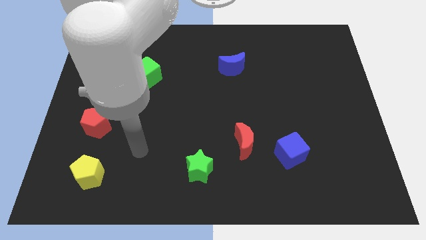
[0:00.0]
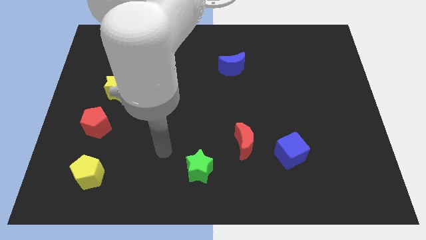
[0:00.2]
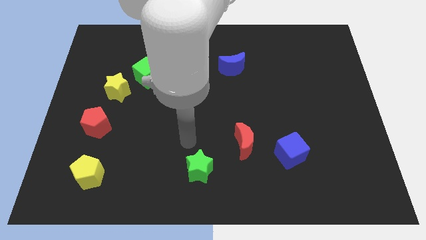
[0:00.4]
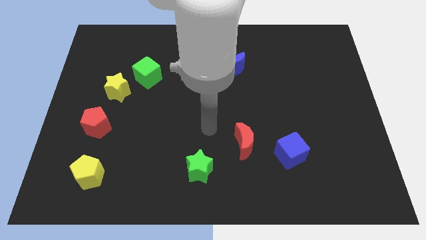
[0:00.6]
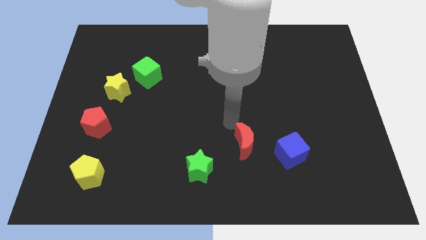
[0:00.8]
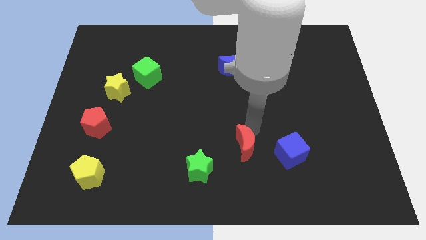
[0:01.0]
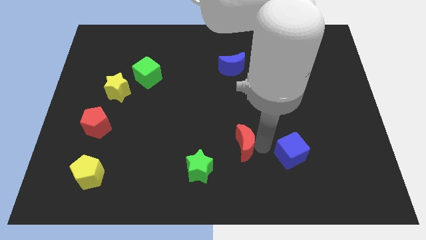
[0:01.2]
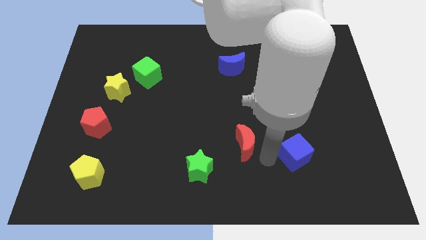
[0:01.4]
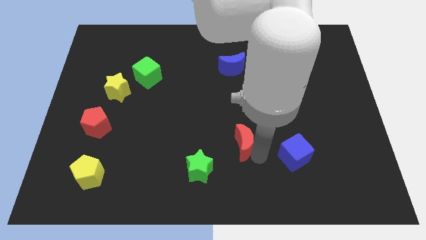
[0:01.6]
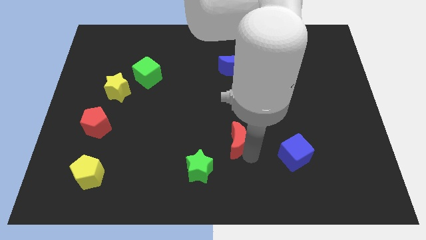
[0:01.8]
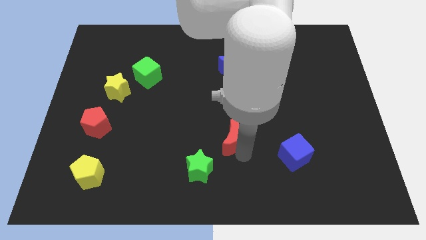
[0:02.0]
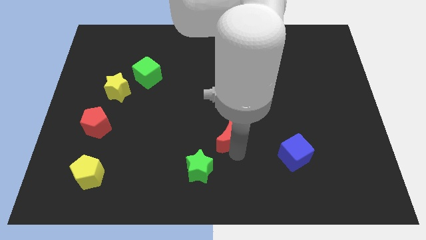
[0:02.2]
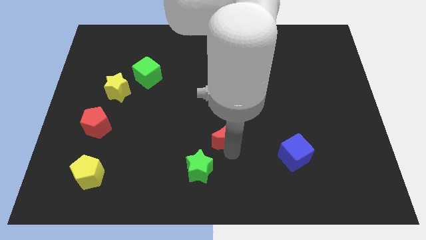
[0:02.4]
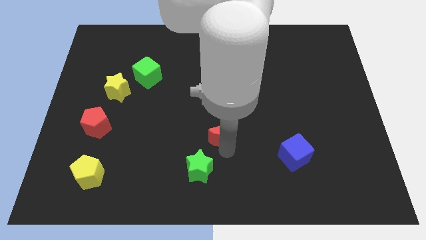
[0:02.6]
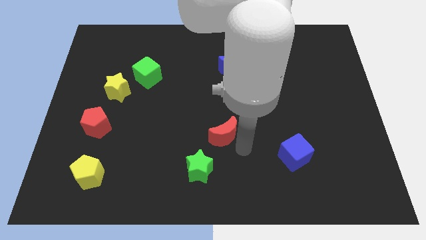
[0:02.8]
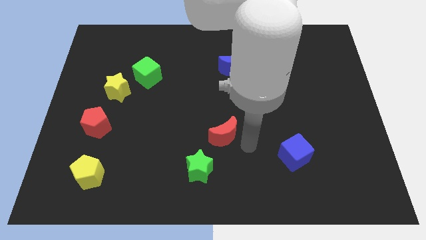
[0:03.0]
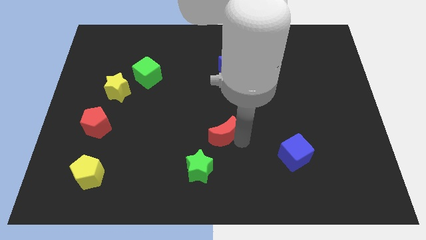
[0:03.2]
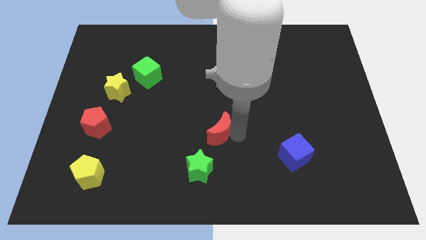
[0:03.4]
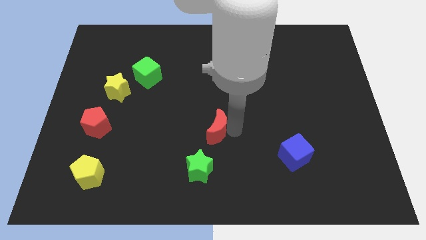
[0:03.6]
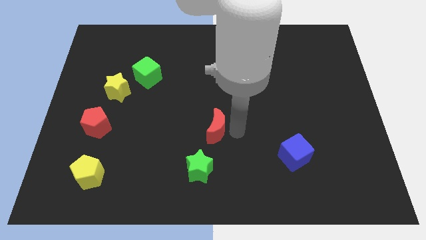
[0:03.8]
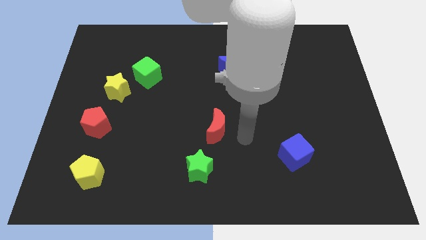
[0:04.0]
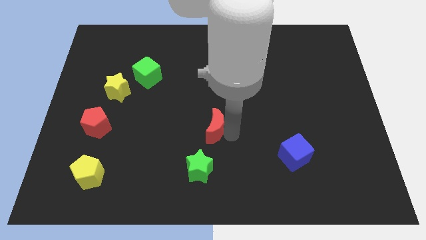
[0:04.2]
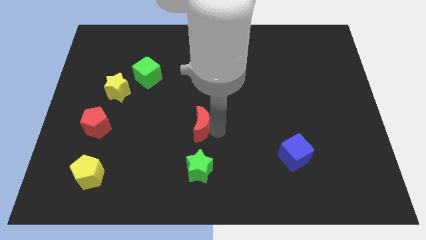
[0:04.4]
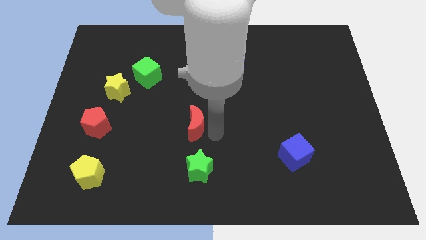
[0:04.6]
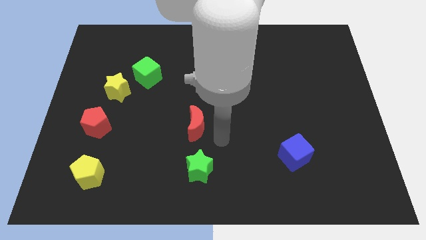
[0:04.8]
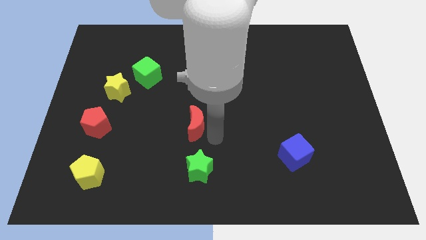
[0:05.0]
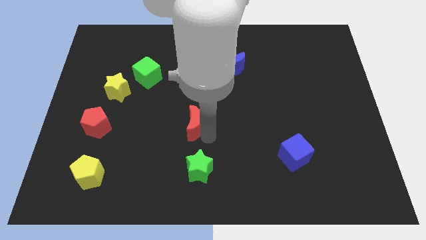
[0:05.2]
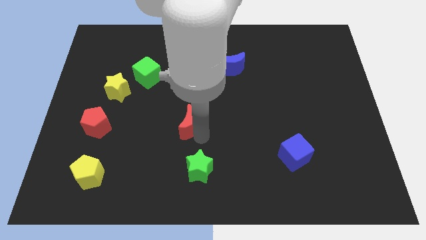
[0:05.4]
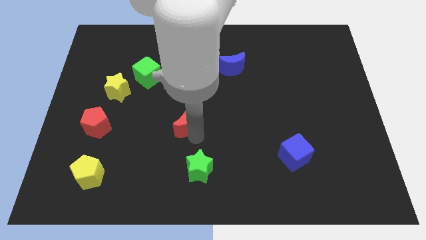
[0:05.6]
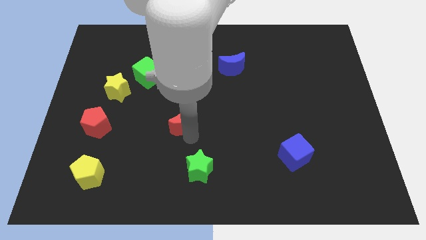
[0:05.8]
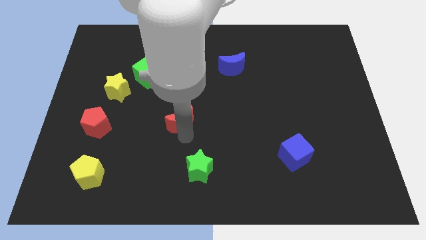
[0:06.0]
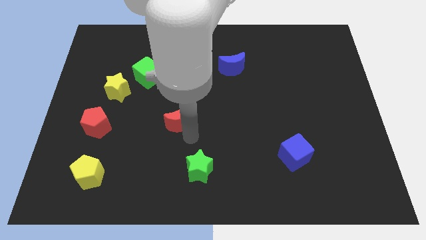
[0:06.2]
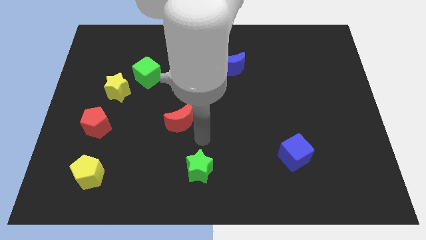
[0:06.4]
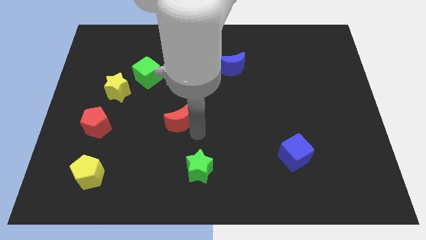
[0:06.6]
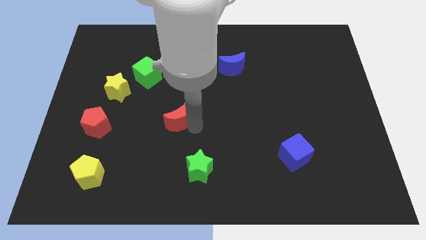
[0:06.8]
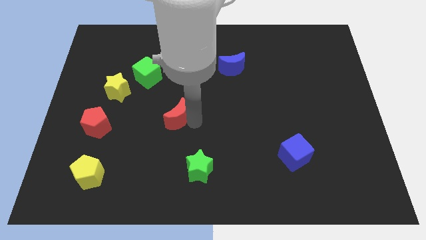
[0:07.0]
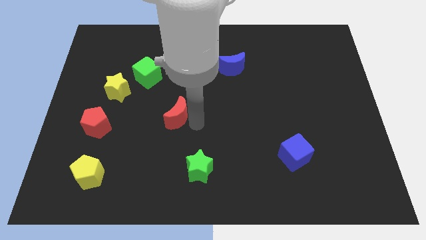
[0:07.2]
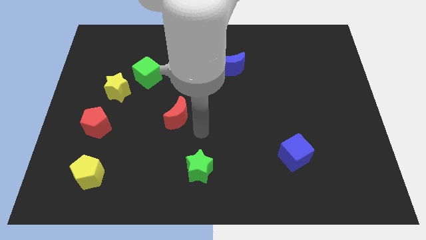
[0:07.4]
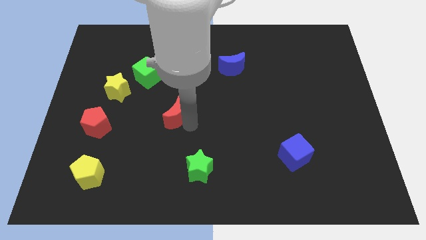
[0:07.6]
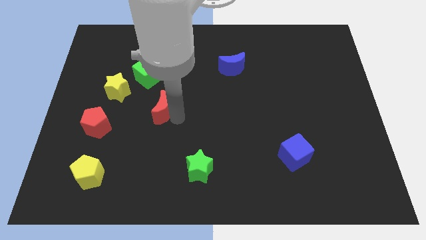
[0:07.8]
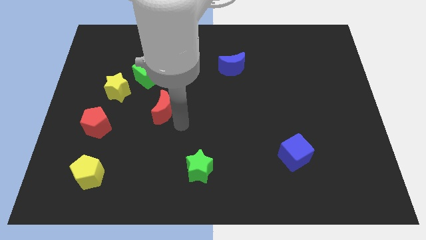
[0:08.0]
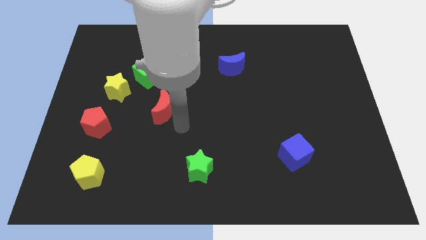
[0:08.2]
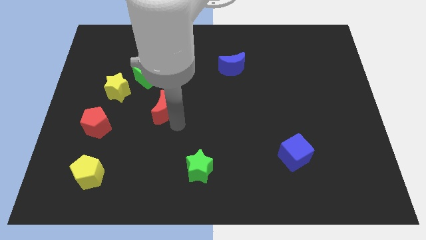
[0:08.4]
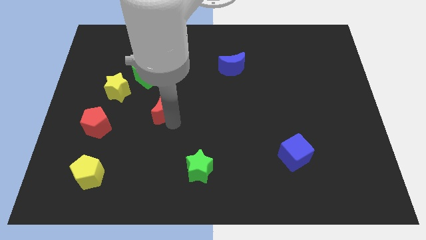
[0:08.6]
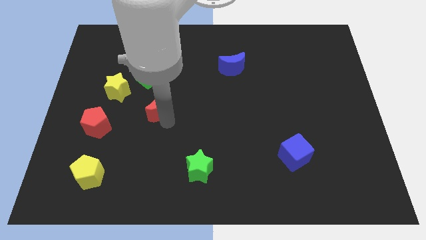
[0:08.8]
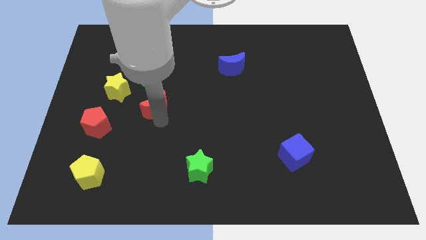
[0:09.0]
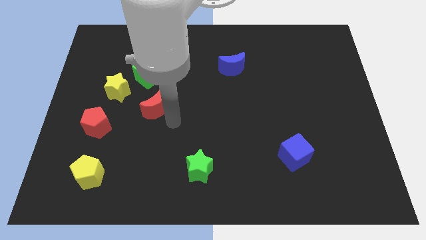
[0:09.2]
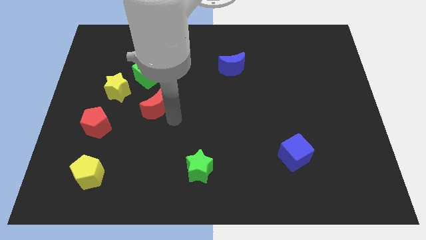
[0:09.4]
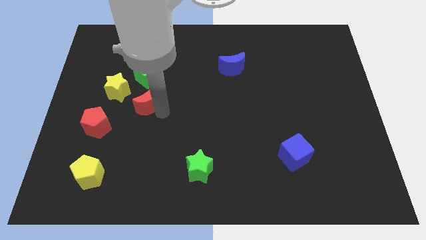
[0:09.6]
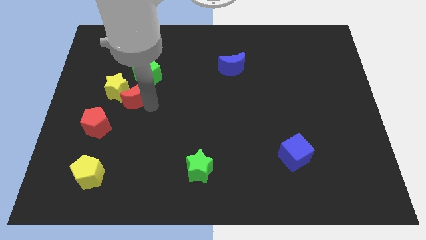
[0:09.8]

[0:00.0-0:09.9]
move the red moon towards the yellow star

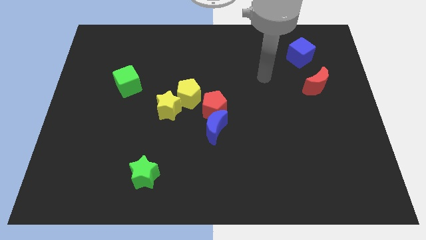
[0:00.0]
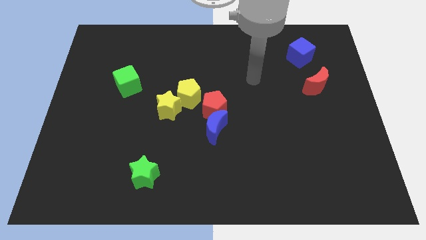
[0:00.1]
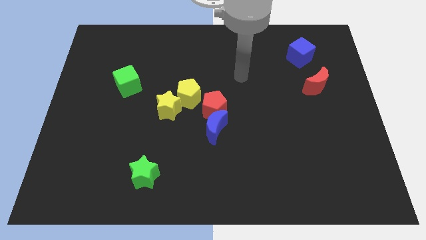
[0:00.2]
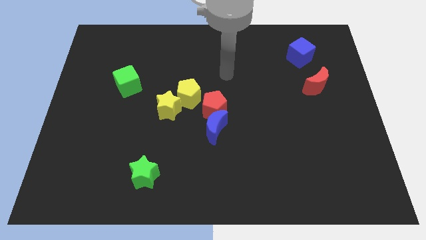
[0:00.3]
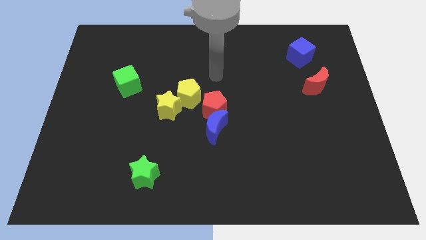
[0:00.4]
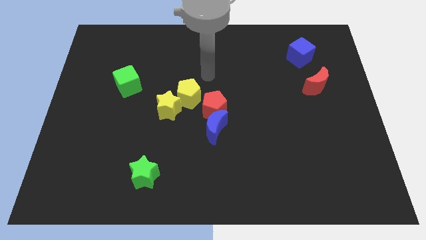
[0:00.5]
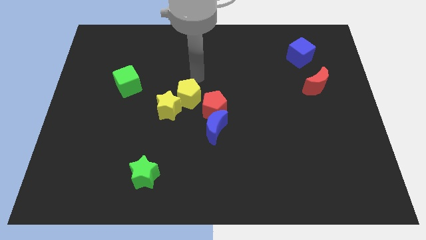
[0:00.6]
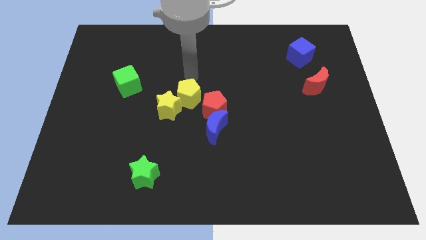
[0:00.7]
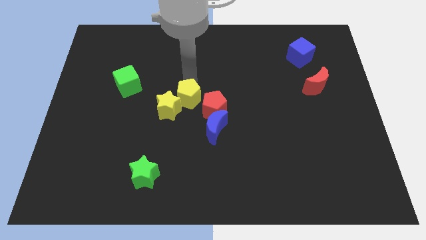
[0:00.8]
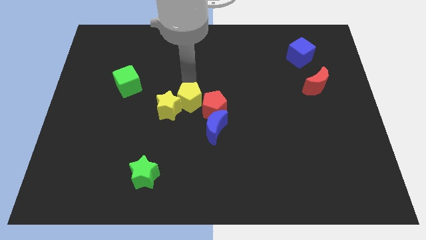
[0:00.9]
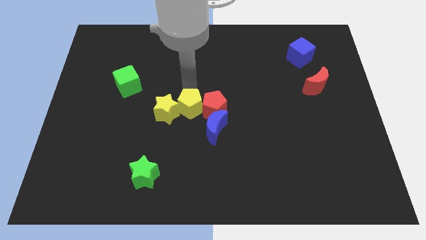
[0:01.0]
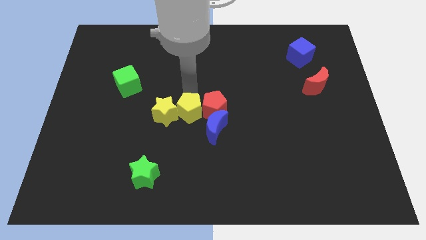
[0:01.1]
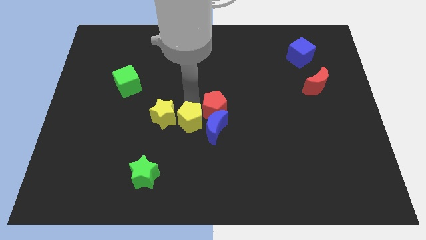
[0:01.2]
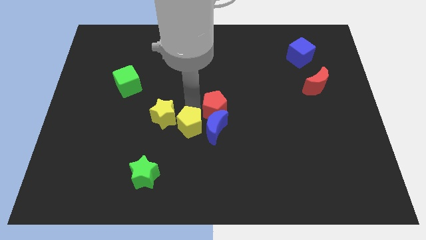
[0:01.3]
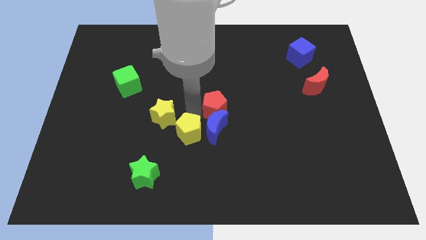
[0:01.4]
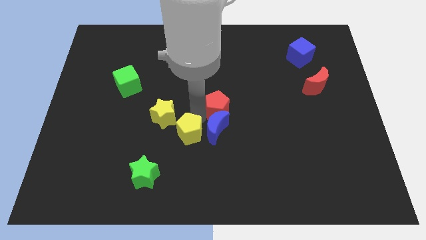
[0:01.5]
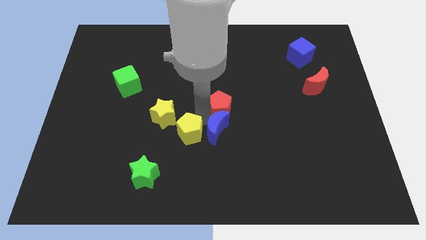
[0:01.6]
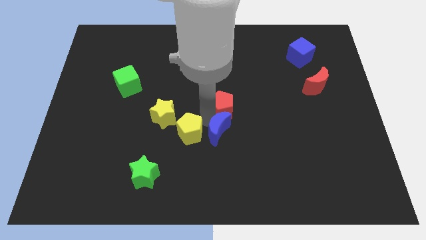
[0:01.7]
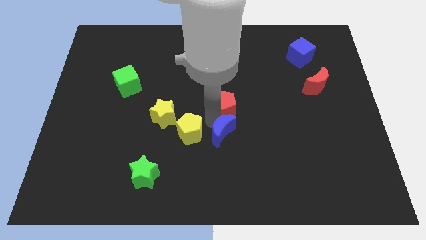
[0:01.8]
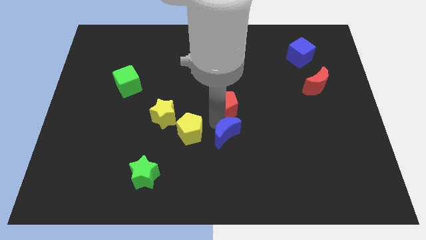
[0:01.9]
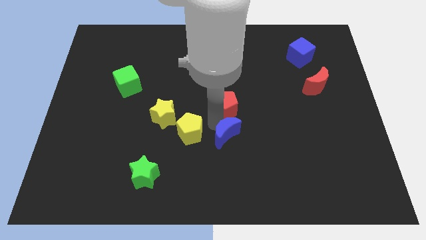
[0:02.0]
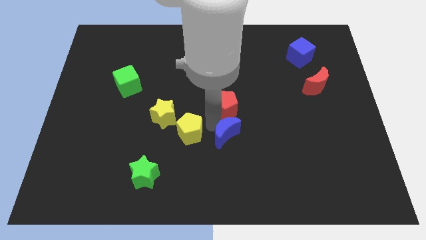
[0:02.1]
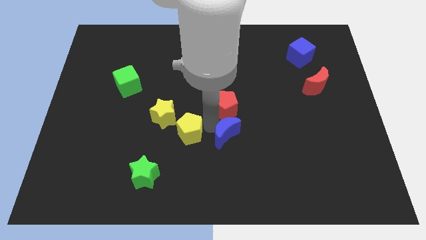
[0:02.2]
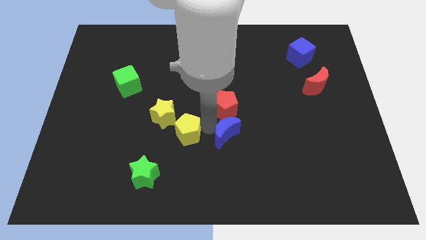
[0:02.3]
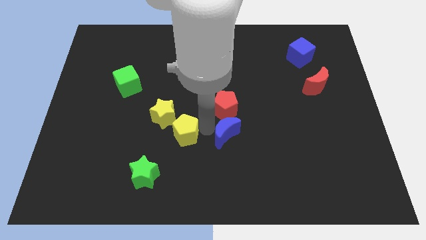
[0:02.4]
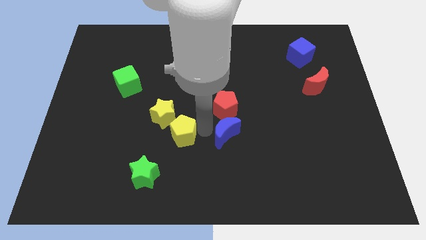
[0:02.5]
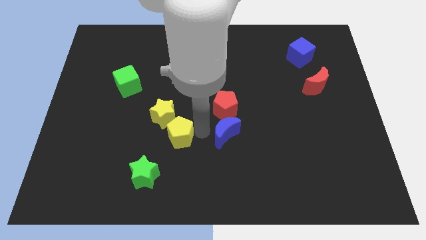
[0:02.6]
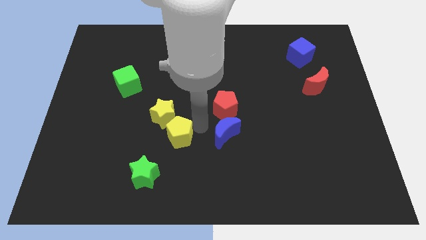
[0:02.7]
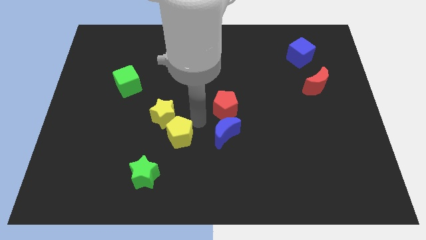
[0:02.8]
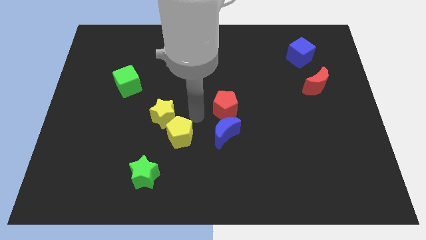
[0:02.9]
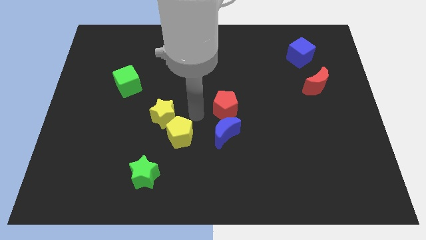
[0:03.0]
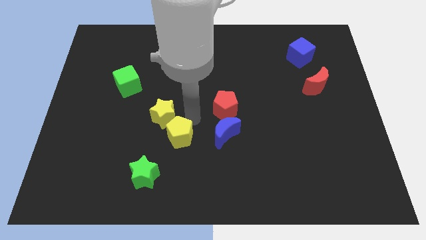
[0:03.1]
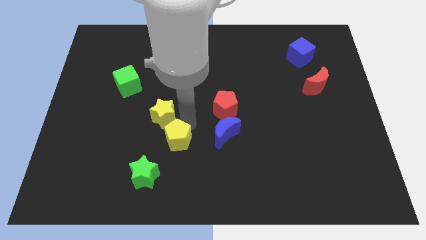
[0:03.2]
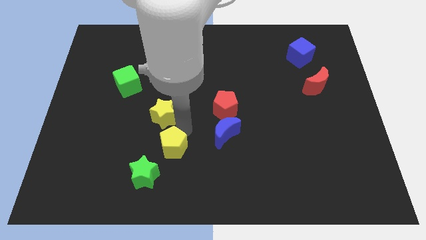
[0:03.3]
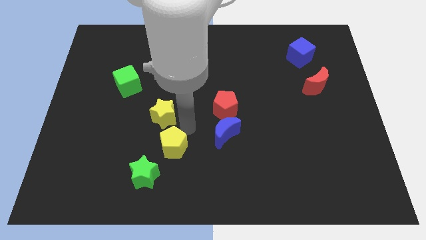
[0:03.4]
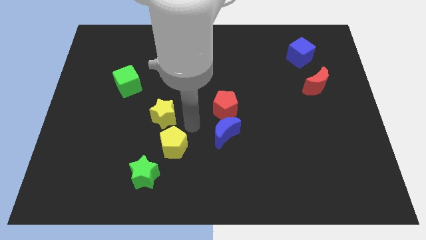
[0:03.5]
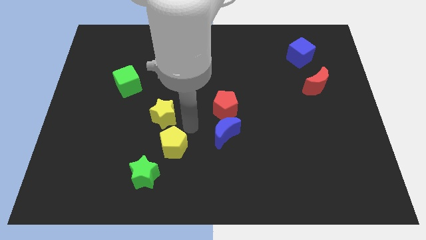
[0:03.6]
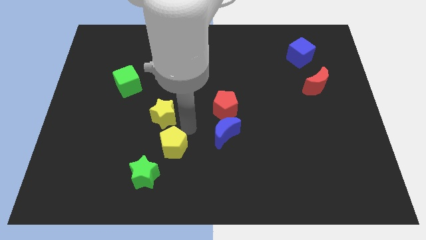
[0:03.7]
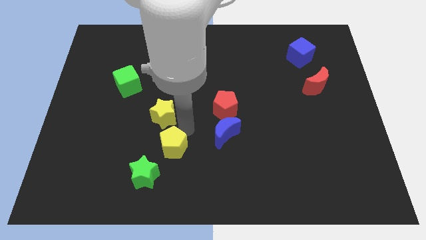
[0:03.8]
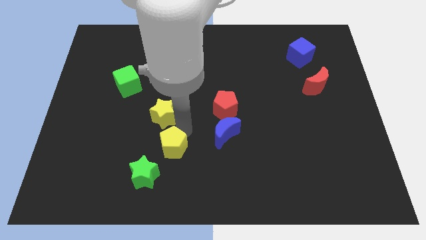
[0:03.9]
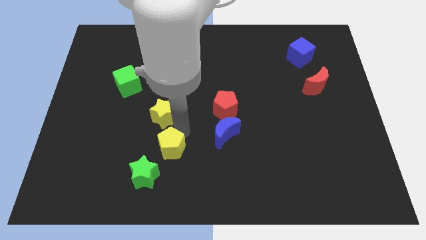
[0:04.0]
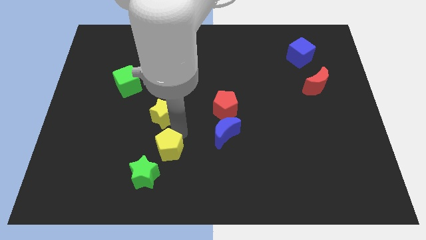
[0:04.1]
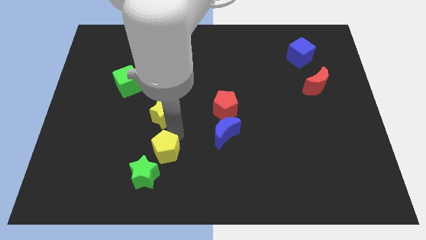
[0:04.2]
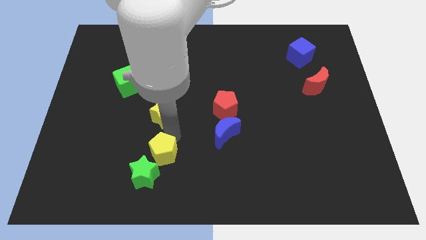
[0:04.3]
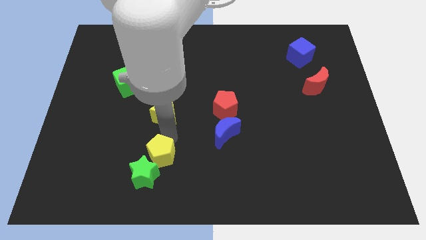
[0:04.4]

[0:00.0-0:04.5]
move the yellow pentagon close to the green star
